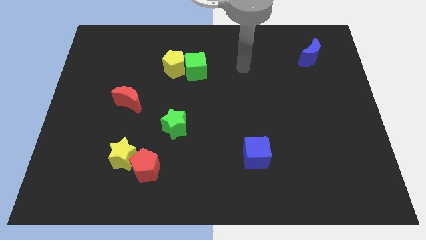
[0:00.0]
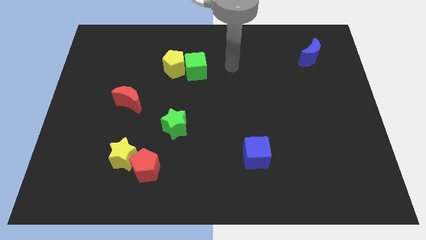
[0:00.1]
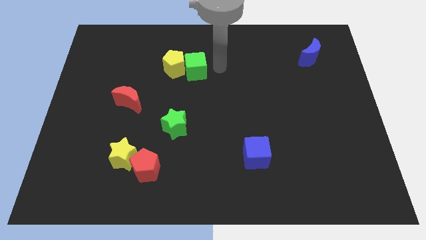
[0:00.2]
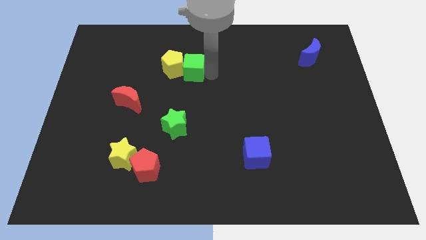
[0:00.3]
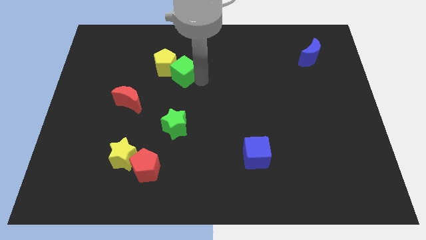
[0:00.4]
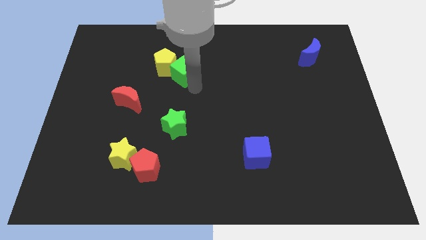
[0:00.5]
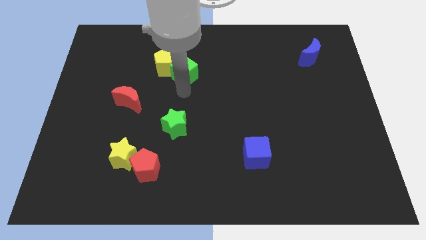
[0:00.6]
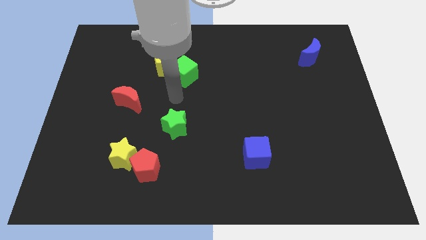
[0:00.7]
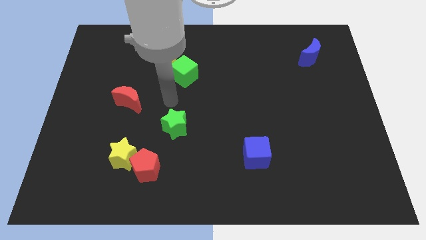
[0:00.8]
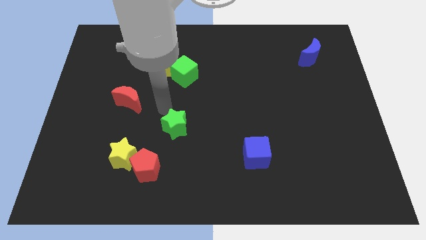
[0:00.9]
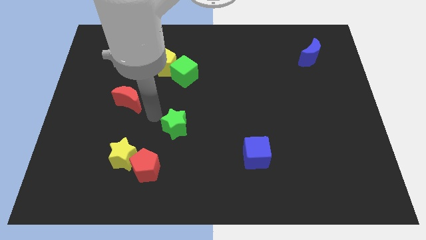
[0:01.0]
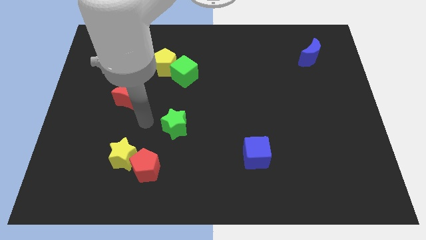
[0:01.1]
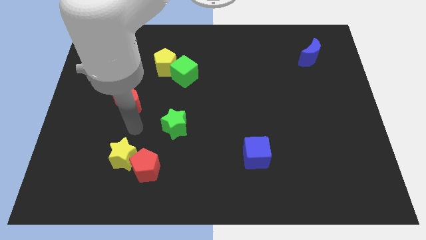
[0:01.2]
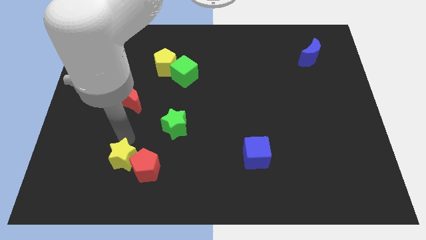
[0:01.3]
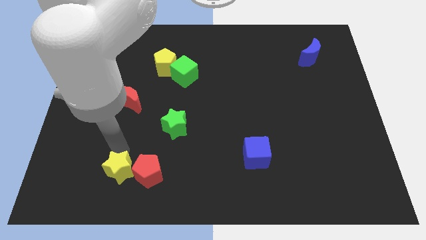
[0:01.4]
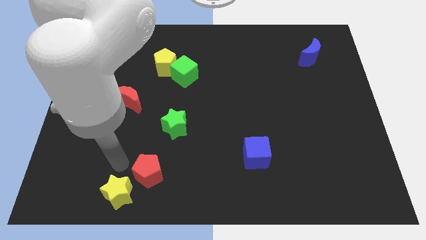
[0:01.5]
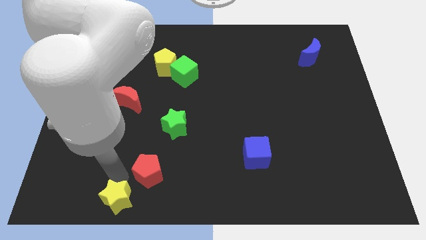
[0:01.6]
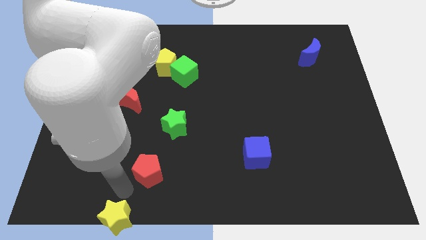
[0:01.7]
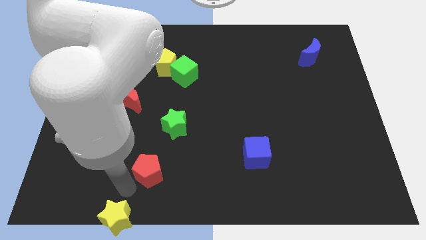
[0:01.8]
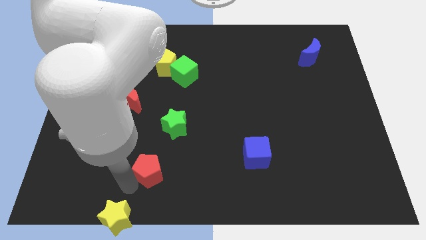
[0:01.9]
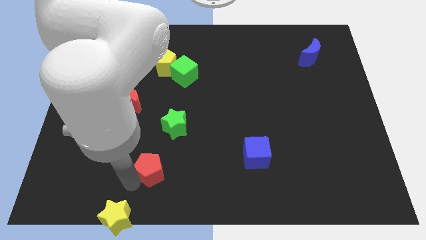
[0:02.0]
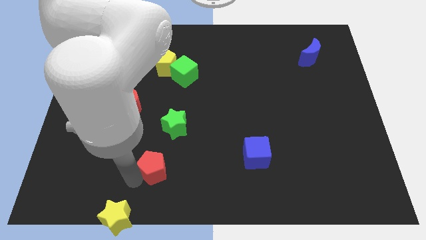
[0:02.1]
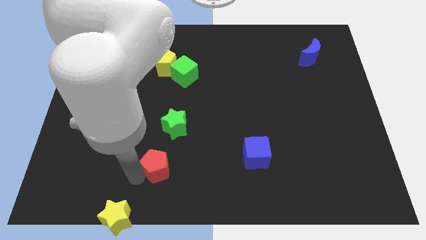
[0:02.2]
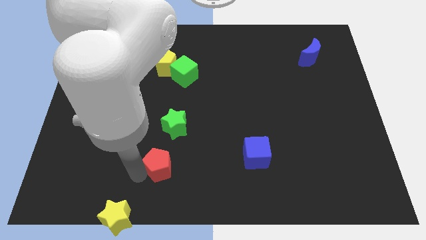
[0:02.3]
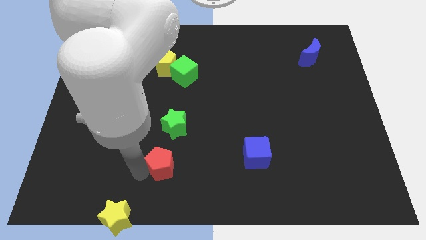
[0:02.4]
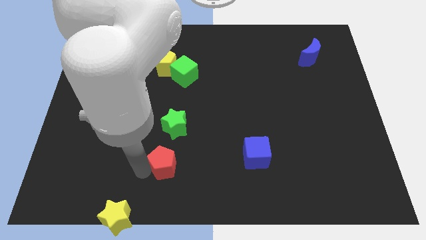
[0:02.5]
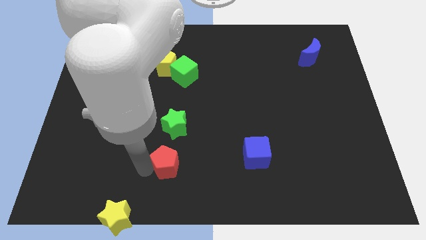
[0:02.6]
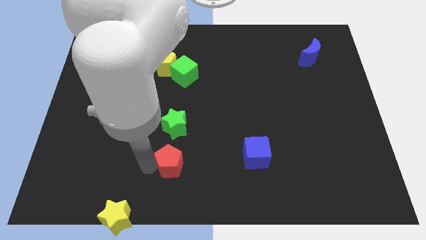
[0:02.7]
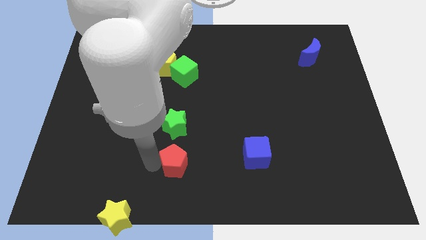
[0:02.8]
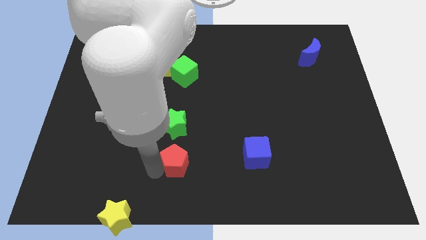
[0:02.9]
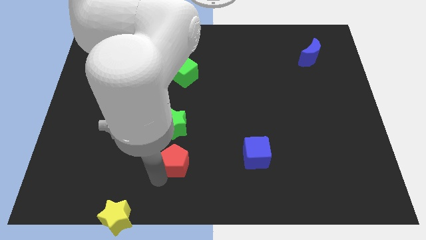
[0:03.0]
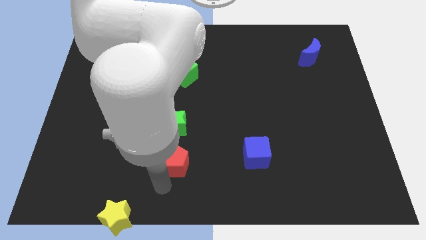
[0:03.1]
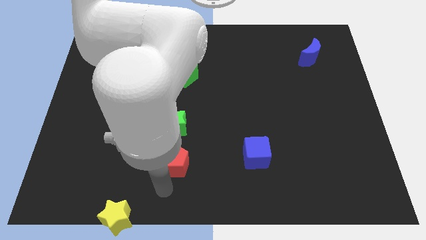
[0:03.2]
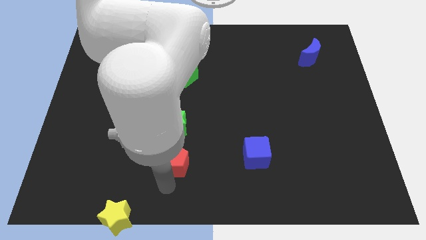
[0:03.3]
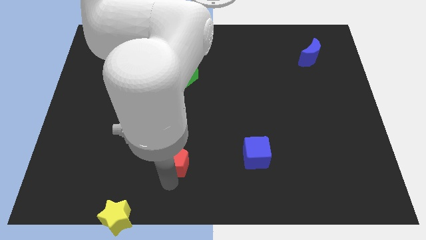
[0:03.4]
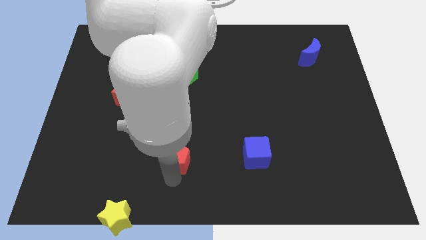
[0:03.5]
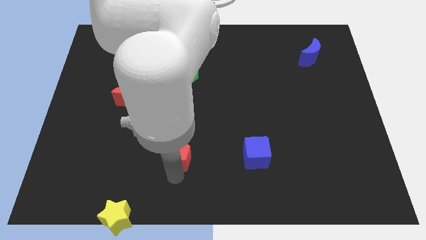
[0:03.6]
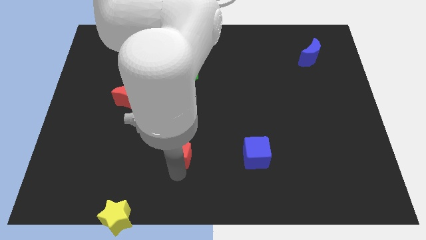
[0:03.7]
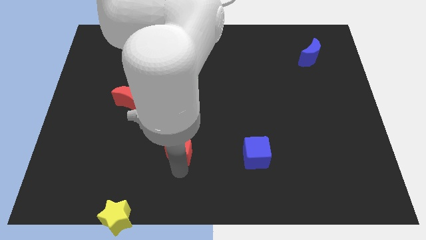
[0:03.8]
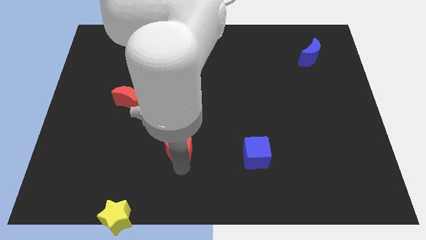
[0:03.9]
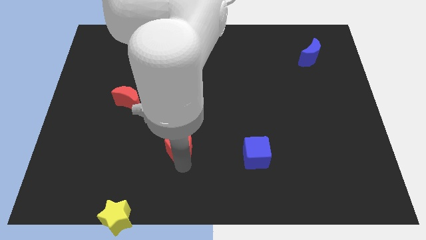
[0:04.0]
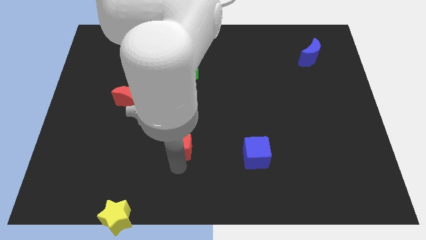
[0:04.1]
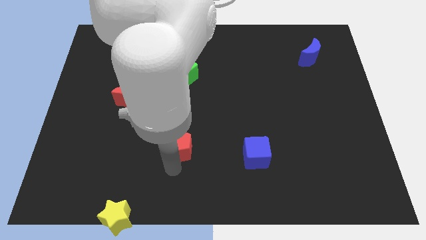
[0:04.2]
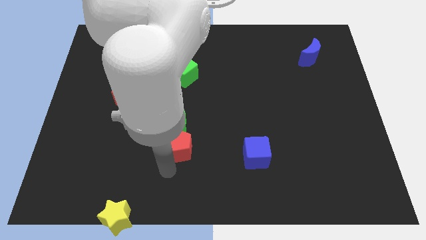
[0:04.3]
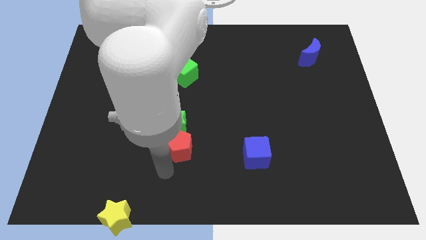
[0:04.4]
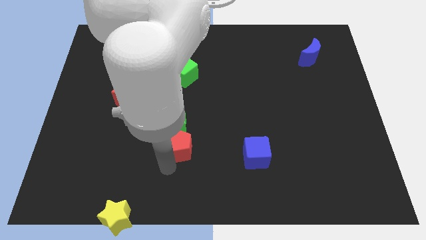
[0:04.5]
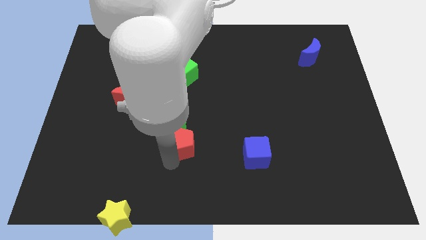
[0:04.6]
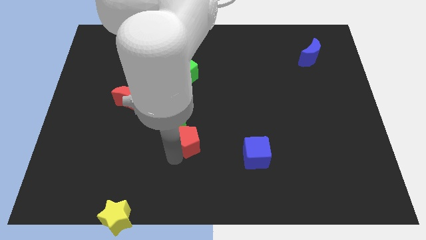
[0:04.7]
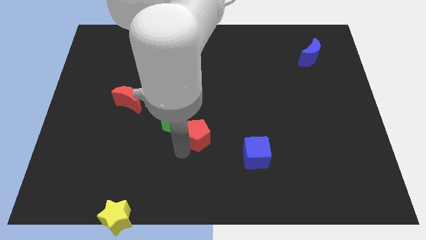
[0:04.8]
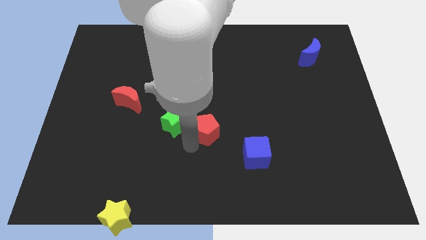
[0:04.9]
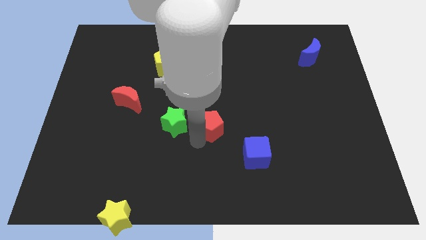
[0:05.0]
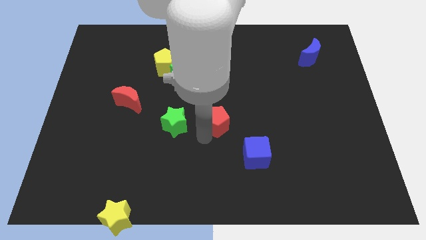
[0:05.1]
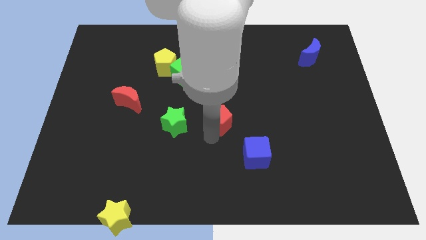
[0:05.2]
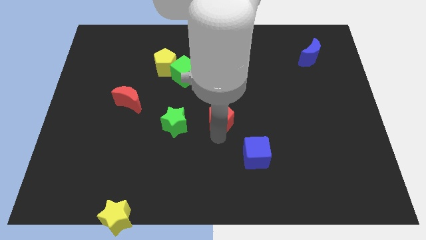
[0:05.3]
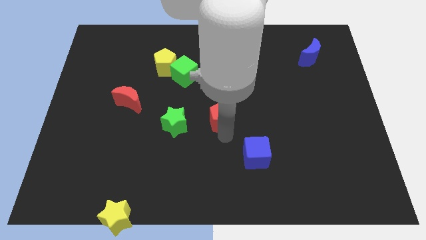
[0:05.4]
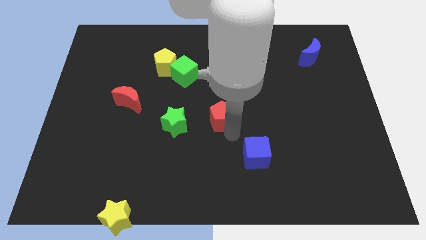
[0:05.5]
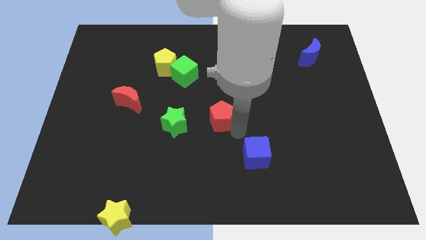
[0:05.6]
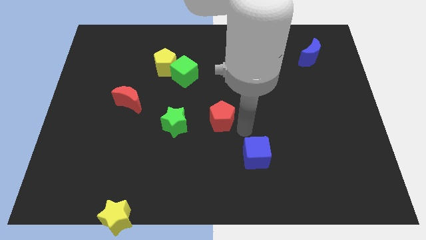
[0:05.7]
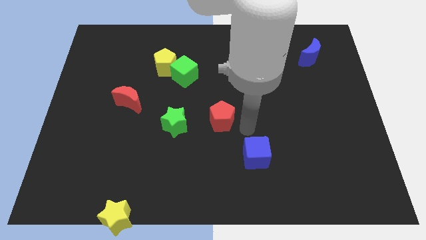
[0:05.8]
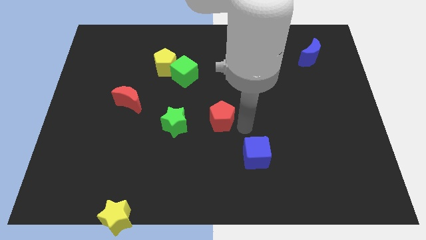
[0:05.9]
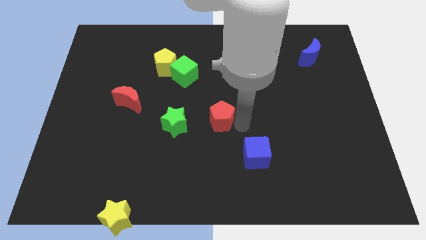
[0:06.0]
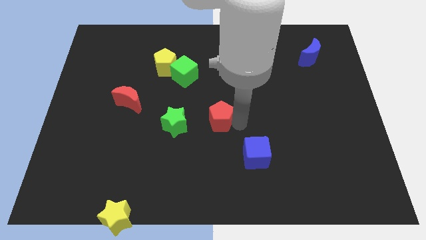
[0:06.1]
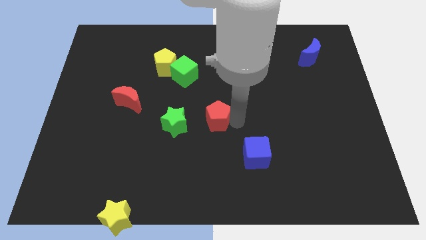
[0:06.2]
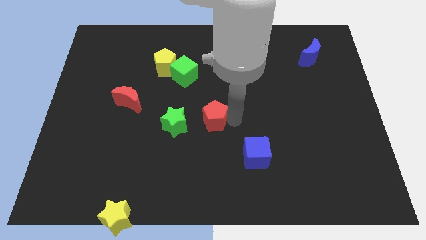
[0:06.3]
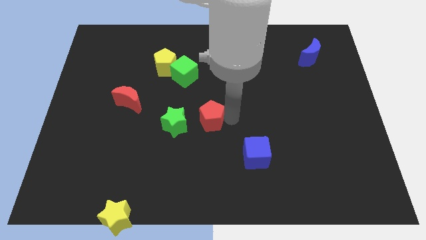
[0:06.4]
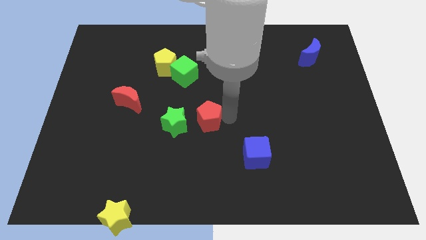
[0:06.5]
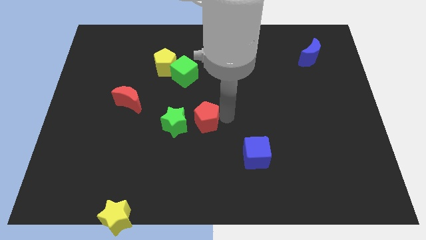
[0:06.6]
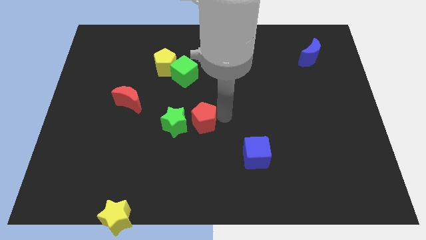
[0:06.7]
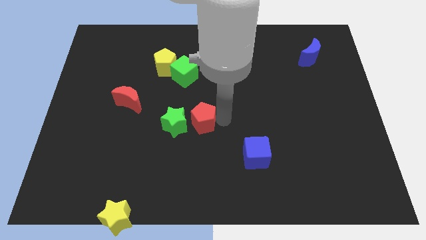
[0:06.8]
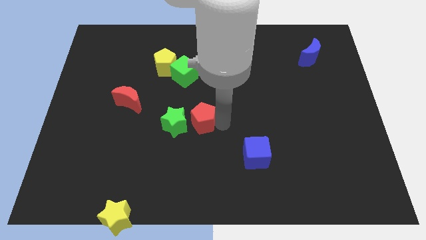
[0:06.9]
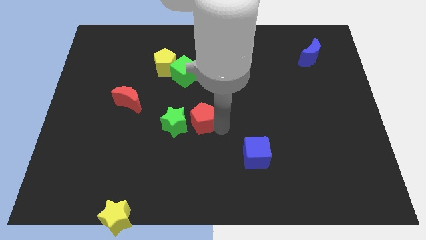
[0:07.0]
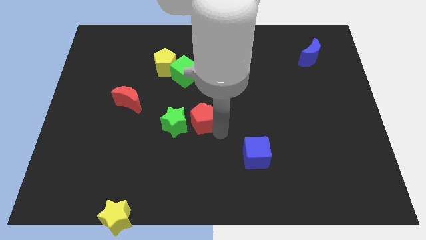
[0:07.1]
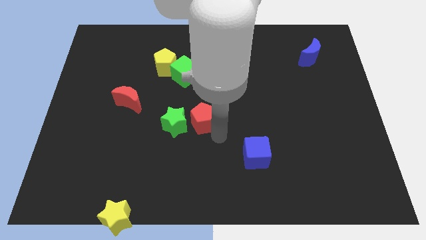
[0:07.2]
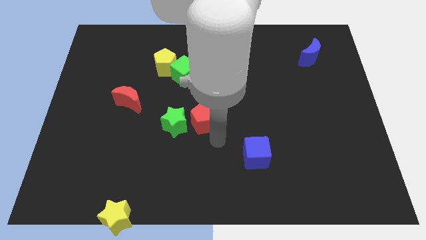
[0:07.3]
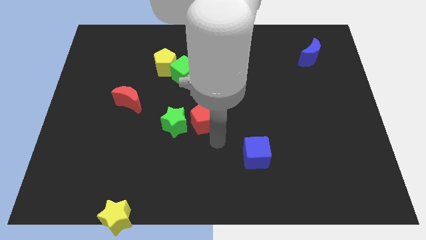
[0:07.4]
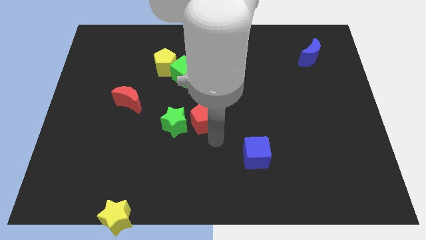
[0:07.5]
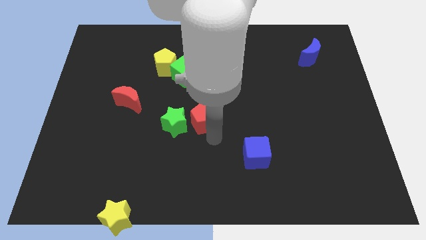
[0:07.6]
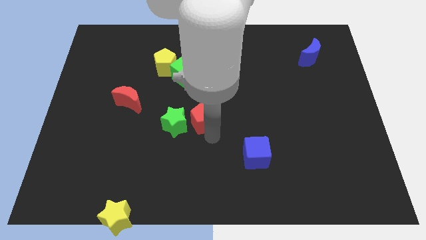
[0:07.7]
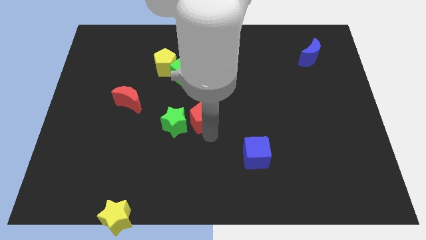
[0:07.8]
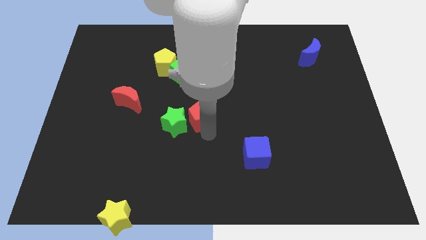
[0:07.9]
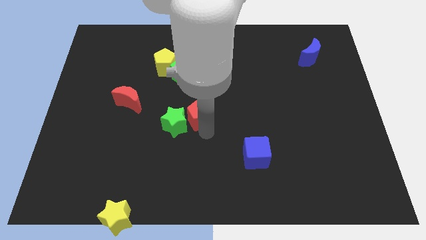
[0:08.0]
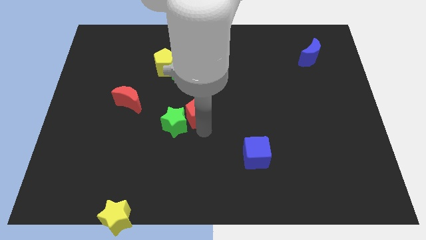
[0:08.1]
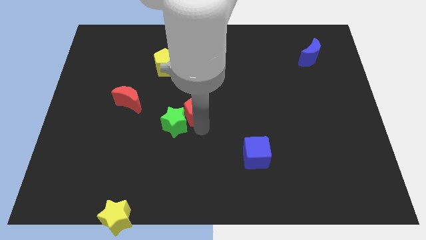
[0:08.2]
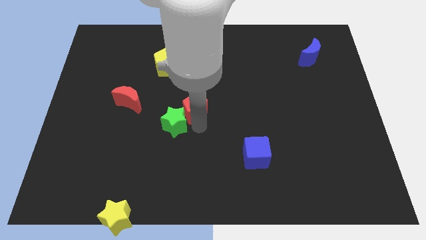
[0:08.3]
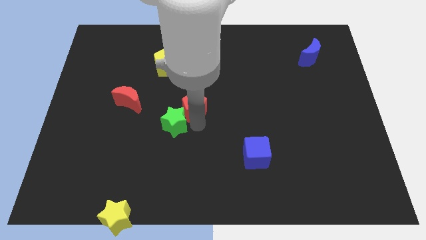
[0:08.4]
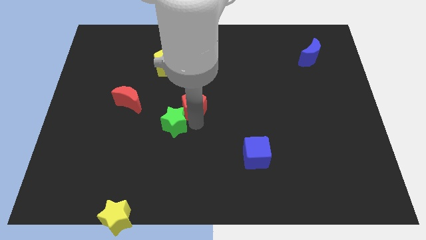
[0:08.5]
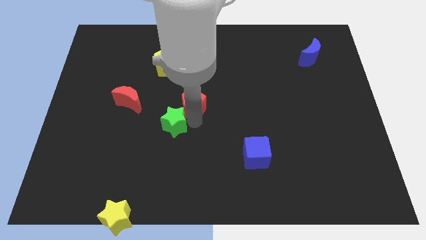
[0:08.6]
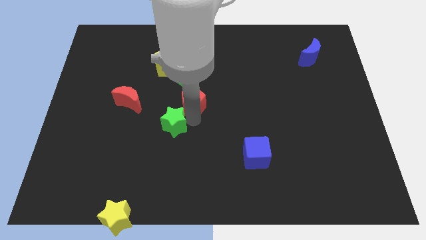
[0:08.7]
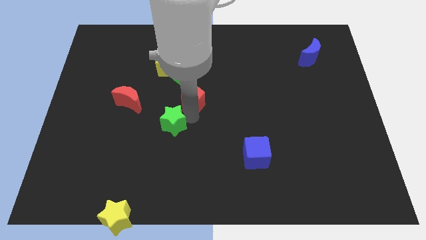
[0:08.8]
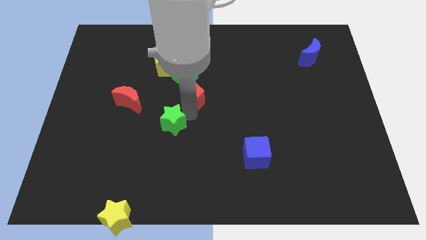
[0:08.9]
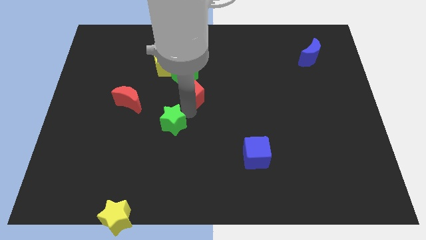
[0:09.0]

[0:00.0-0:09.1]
put the red pentagon to the bottom right side of the yellow pentagon
